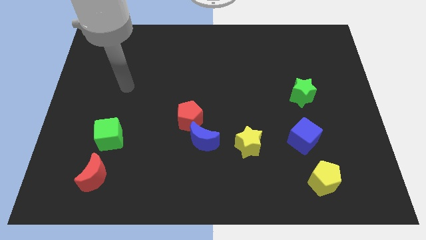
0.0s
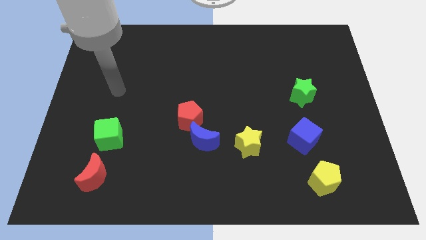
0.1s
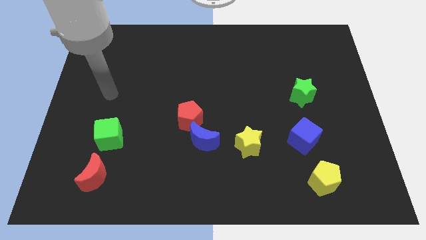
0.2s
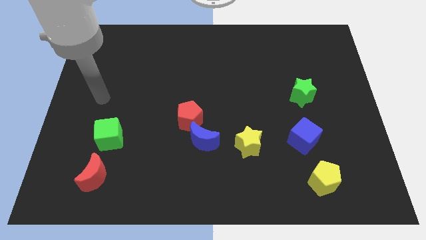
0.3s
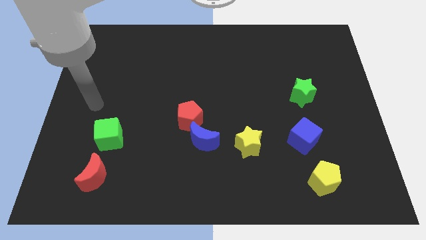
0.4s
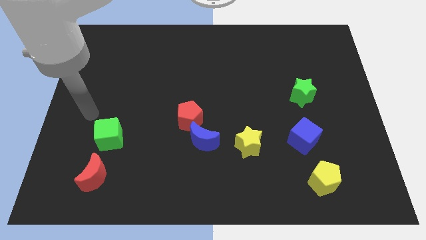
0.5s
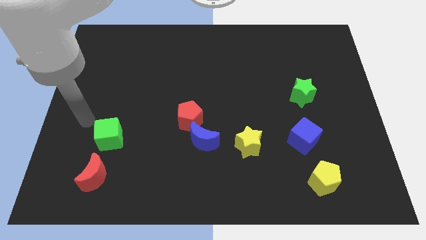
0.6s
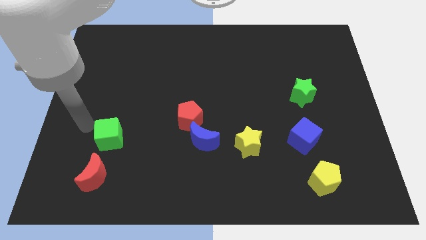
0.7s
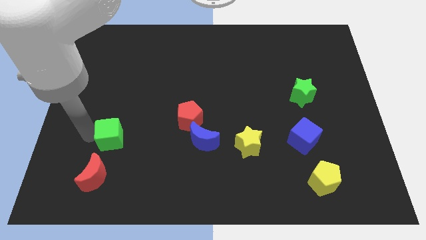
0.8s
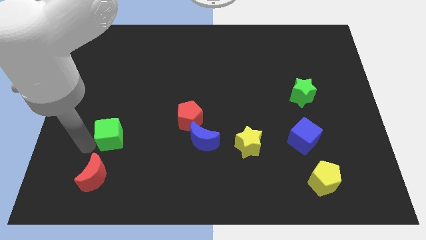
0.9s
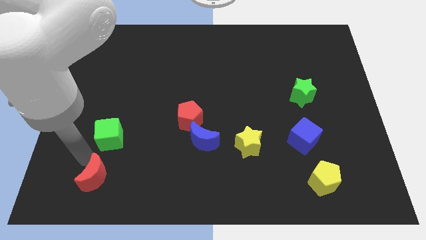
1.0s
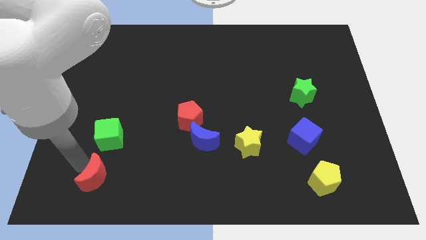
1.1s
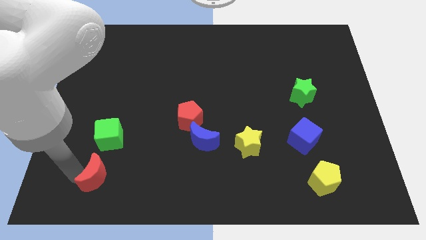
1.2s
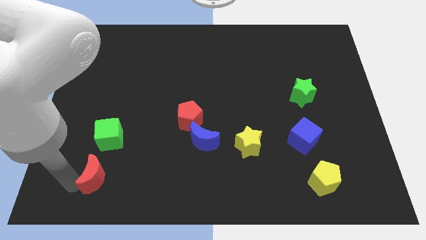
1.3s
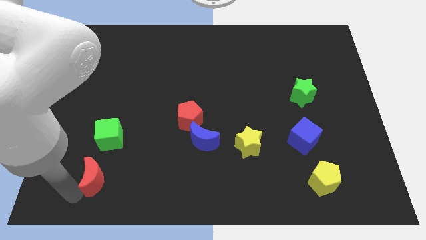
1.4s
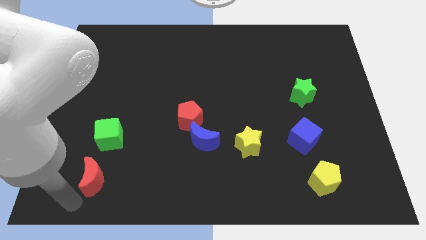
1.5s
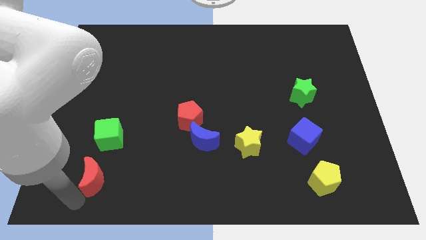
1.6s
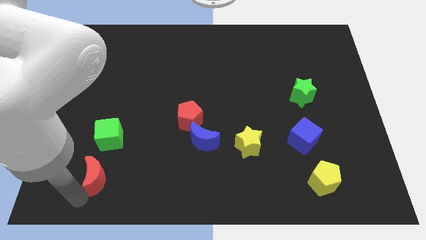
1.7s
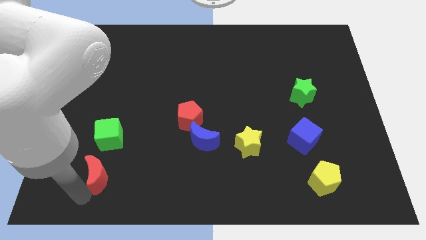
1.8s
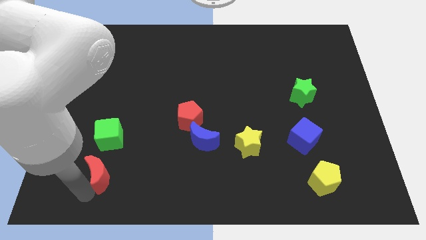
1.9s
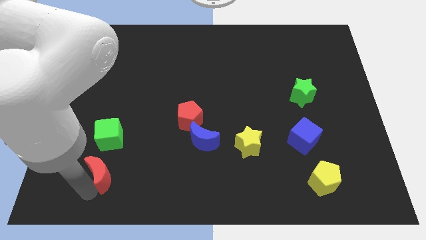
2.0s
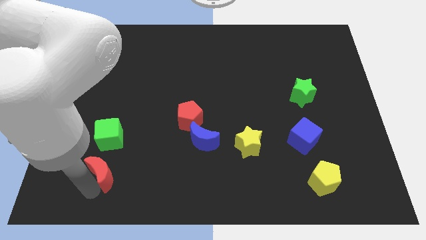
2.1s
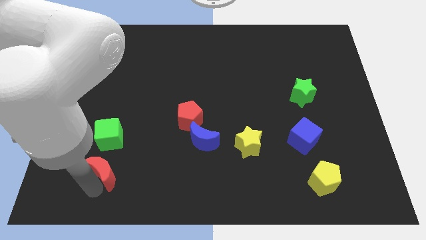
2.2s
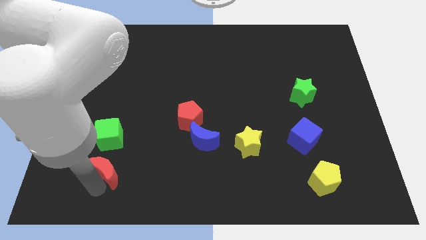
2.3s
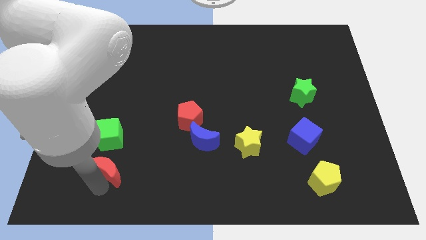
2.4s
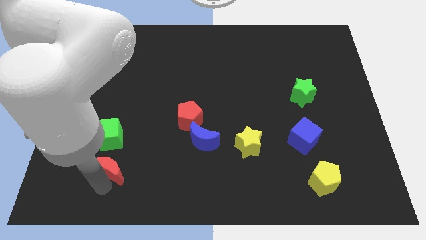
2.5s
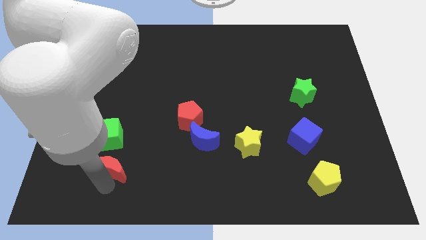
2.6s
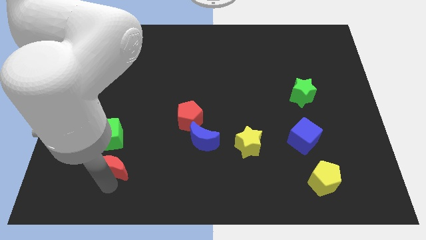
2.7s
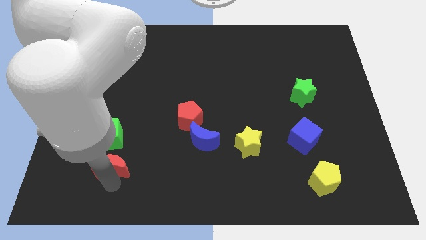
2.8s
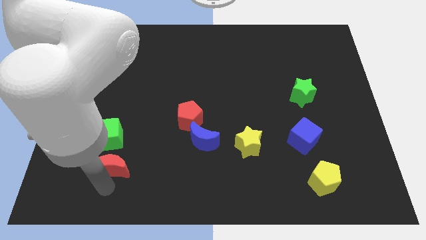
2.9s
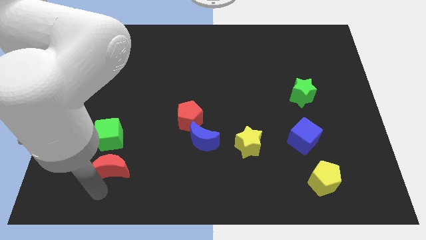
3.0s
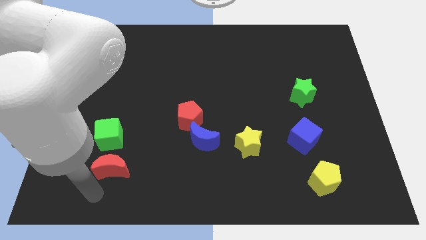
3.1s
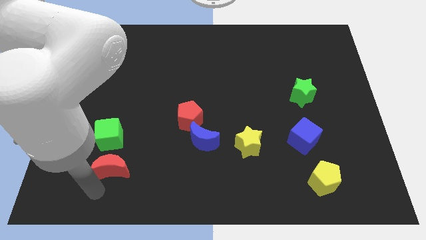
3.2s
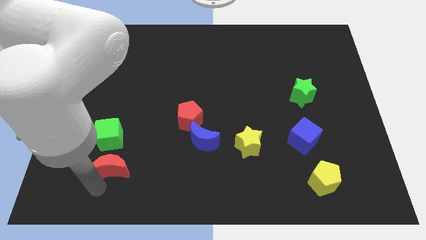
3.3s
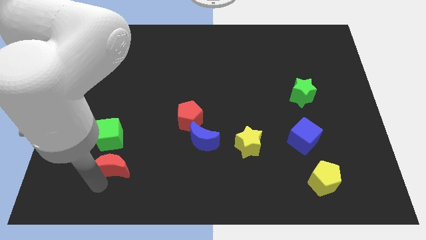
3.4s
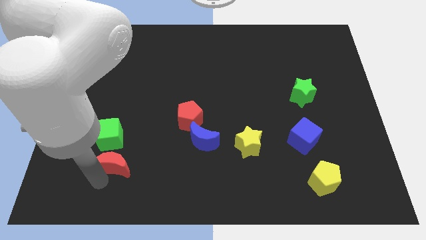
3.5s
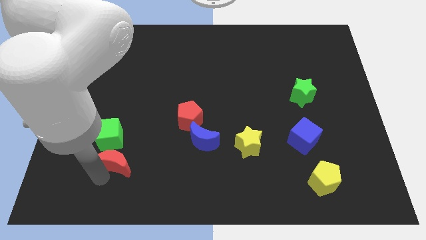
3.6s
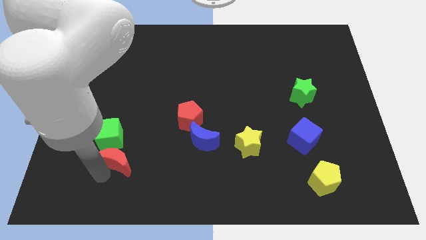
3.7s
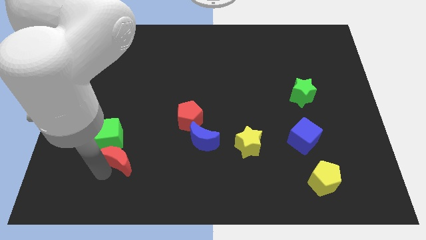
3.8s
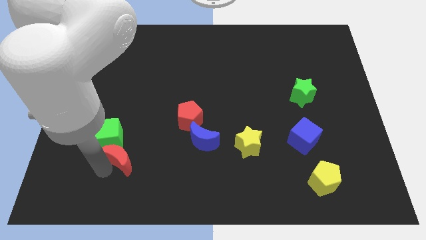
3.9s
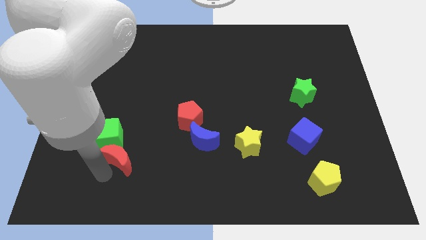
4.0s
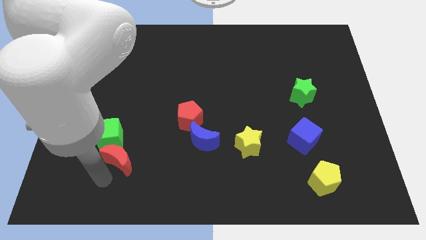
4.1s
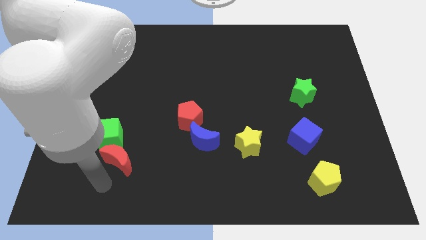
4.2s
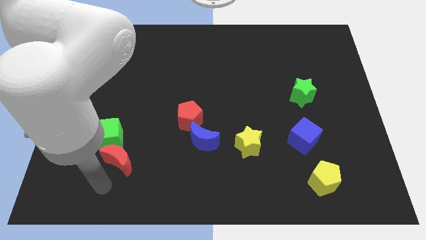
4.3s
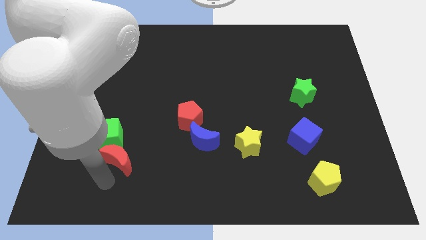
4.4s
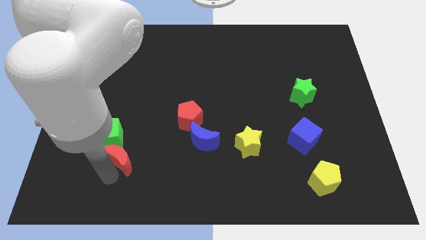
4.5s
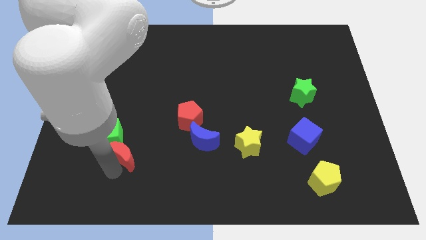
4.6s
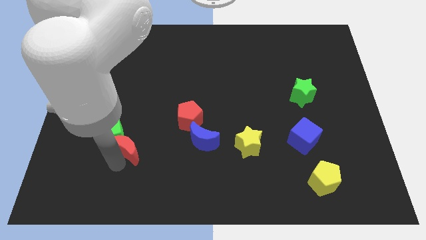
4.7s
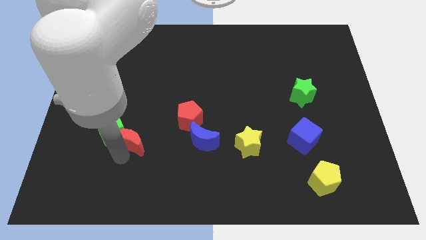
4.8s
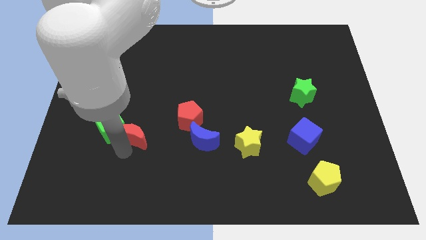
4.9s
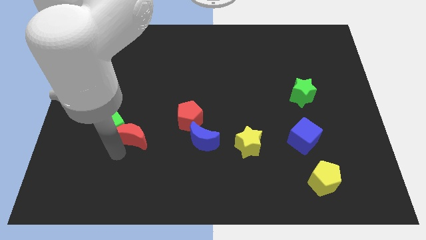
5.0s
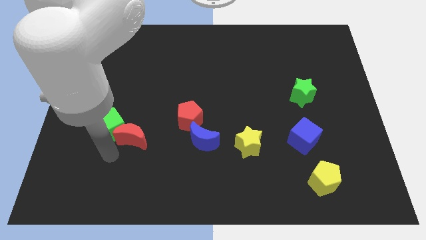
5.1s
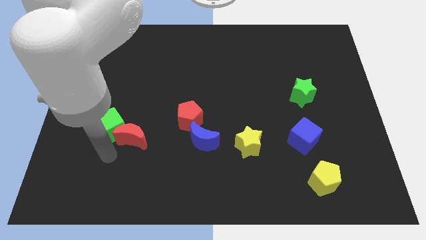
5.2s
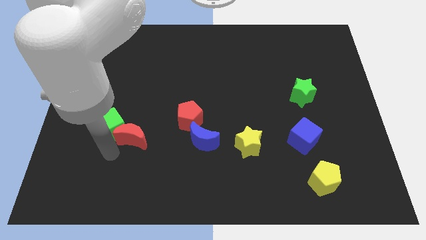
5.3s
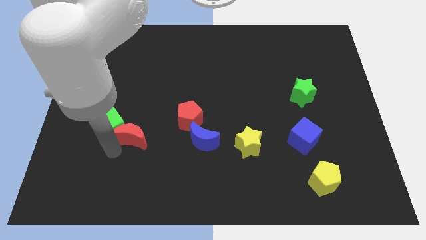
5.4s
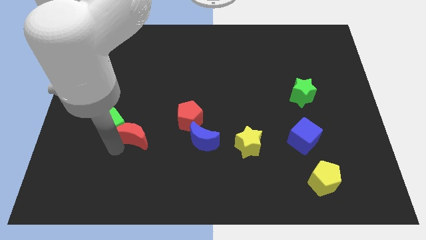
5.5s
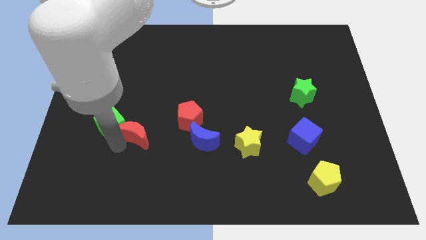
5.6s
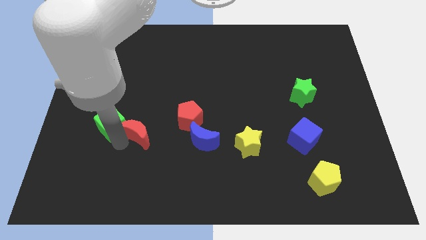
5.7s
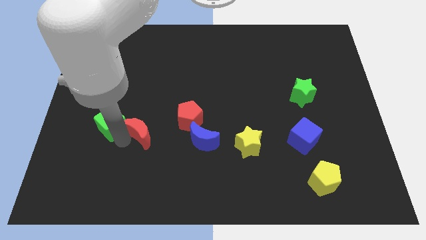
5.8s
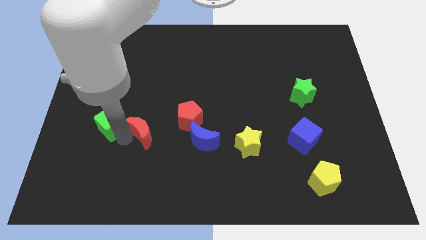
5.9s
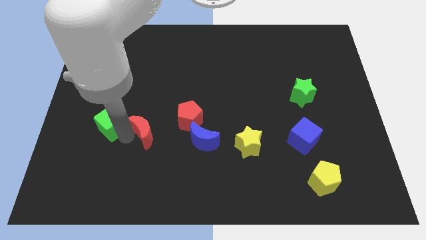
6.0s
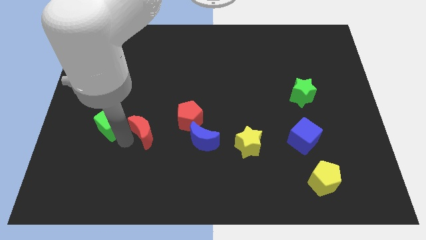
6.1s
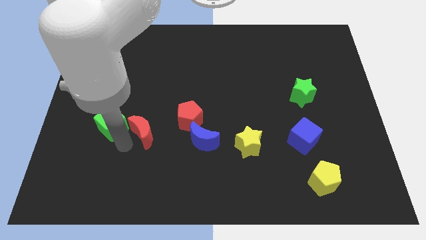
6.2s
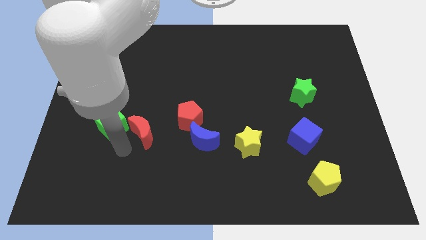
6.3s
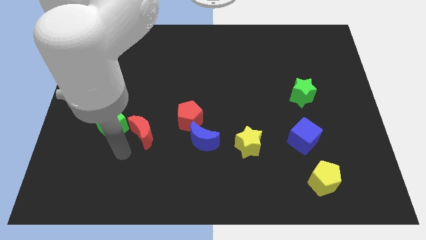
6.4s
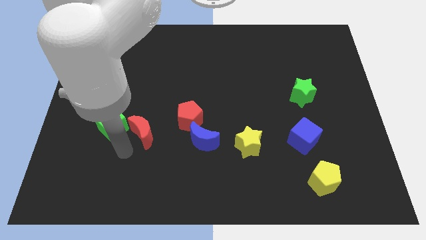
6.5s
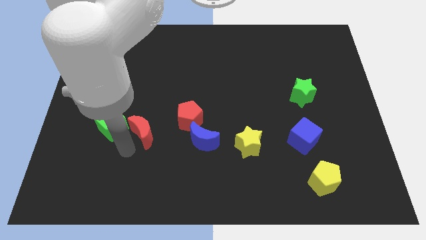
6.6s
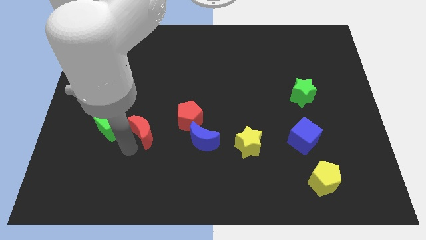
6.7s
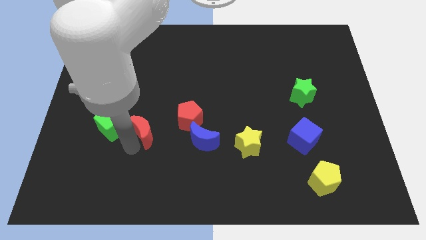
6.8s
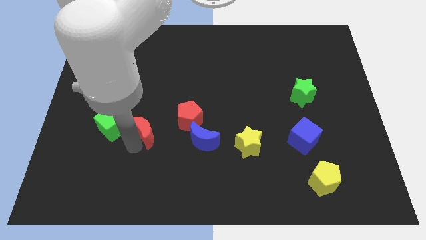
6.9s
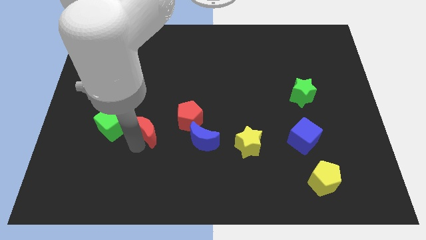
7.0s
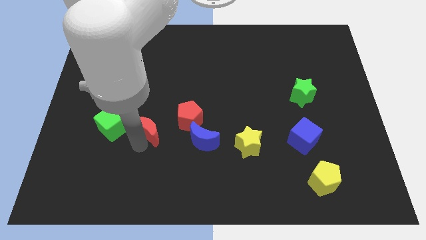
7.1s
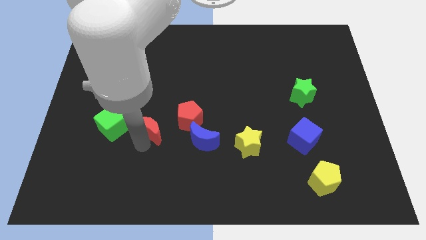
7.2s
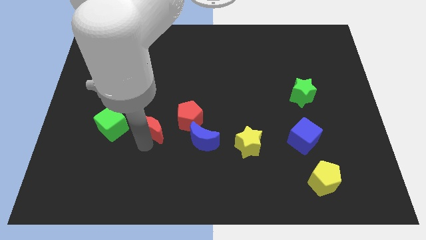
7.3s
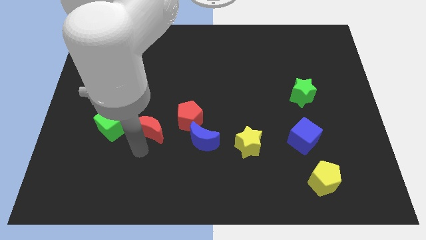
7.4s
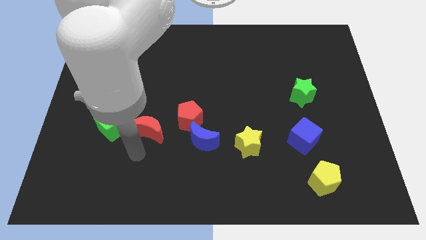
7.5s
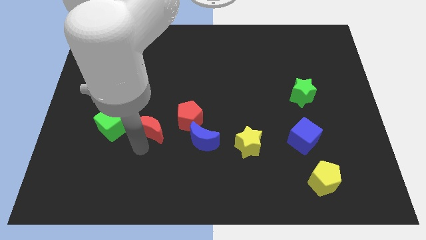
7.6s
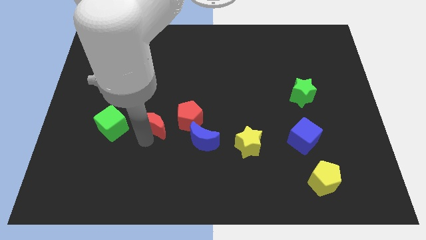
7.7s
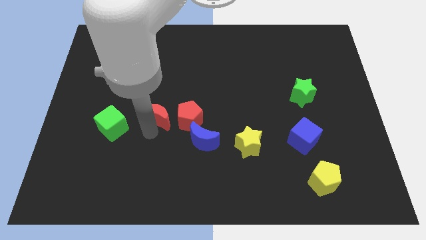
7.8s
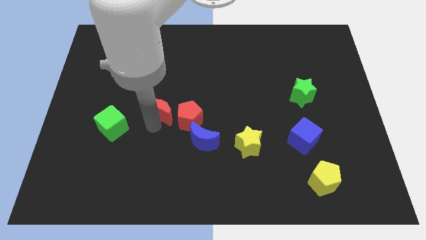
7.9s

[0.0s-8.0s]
put the red moon to the top left of the red pentagon
